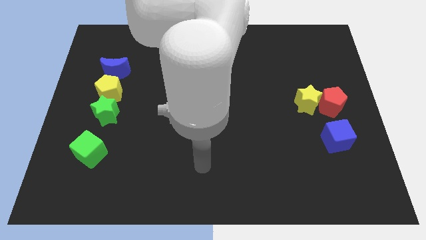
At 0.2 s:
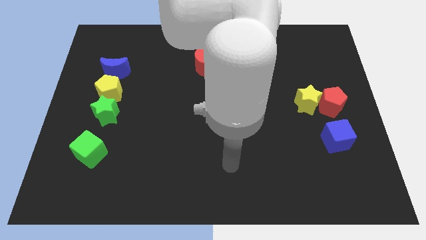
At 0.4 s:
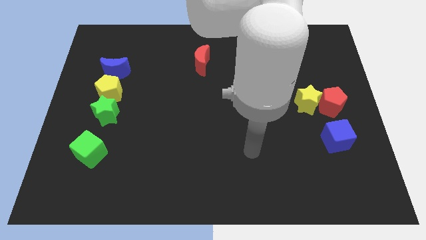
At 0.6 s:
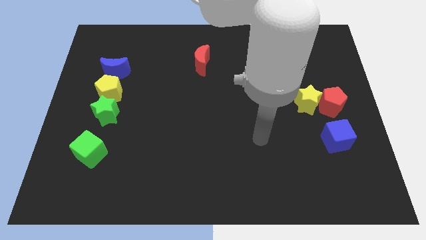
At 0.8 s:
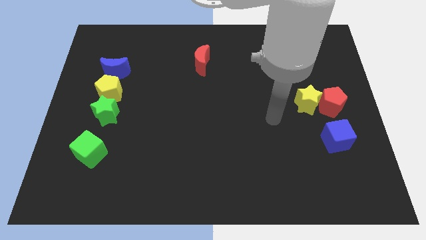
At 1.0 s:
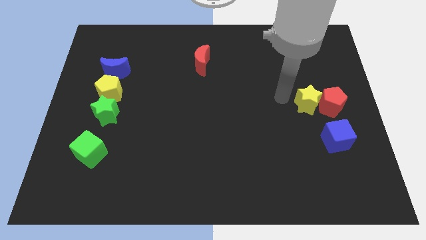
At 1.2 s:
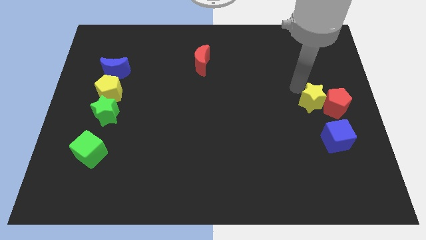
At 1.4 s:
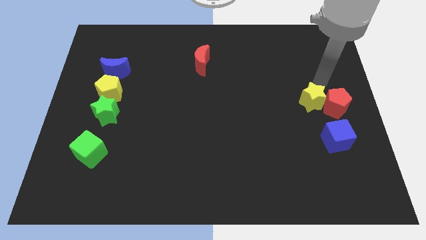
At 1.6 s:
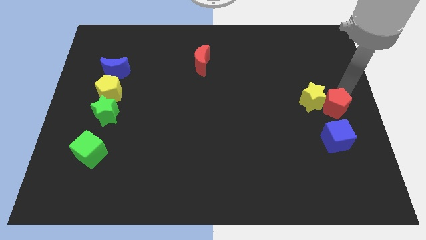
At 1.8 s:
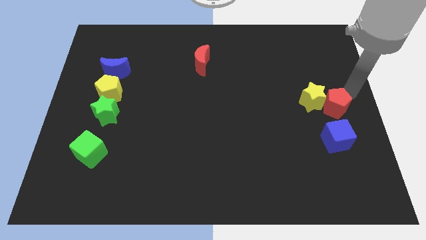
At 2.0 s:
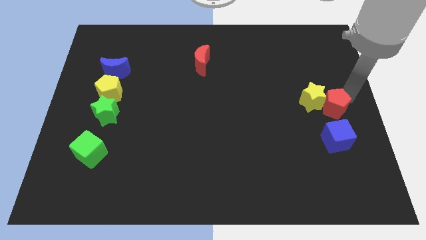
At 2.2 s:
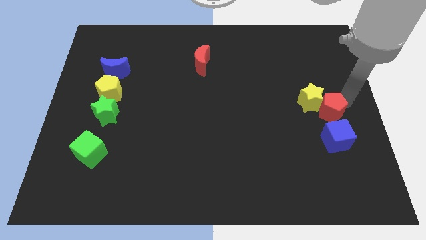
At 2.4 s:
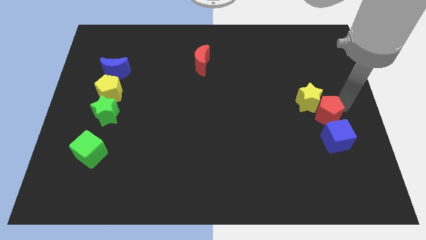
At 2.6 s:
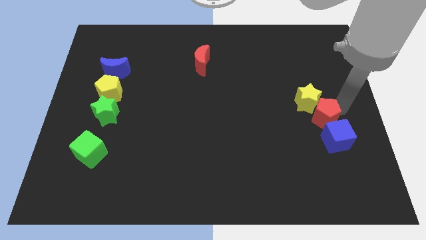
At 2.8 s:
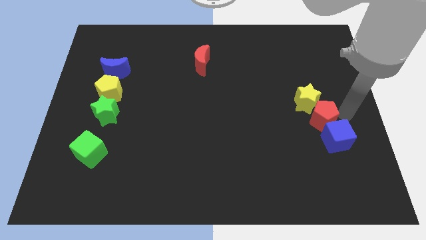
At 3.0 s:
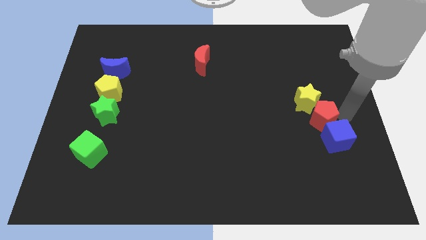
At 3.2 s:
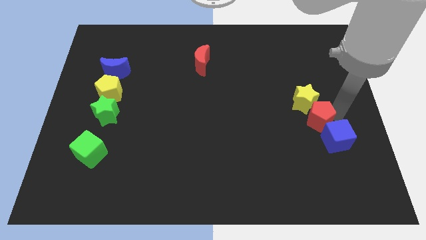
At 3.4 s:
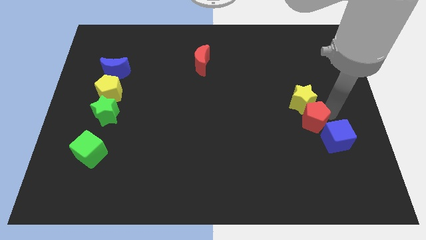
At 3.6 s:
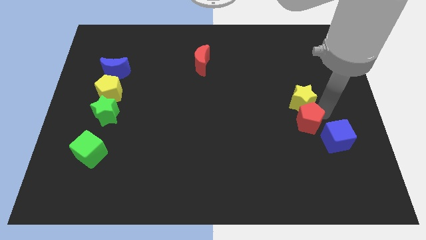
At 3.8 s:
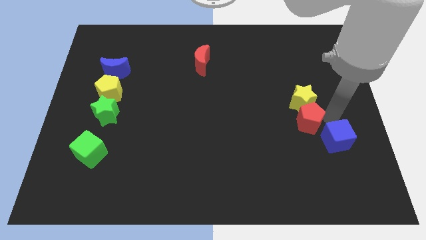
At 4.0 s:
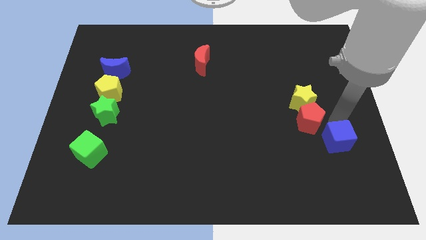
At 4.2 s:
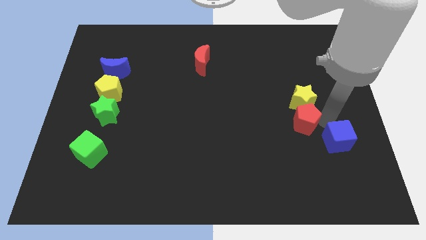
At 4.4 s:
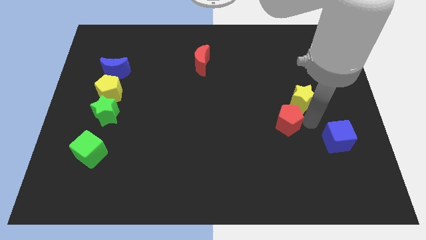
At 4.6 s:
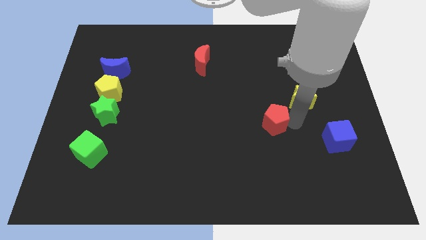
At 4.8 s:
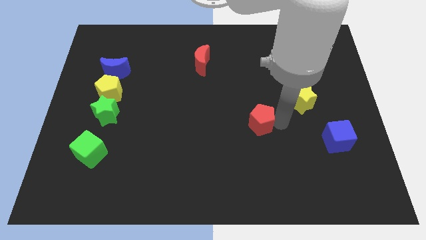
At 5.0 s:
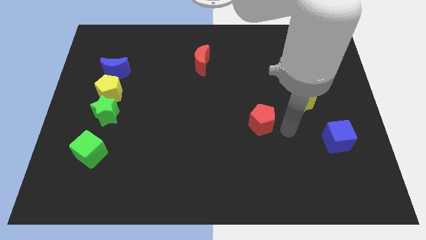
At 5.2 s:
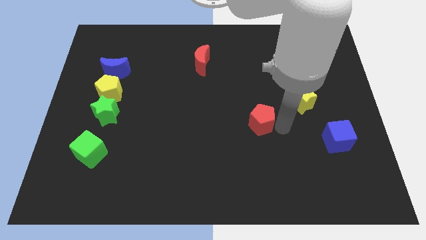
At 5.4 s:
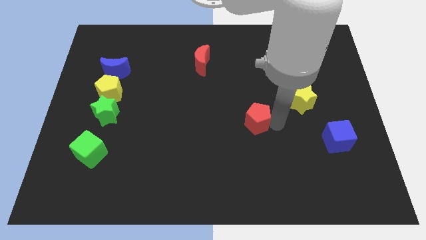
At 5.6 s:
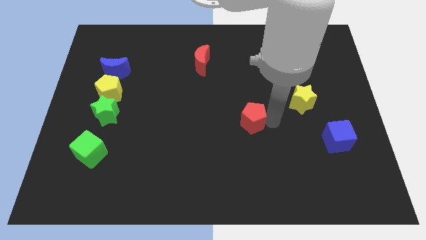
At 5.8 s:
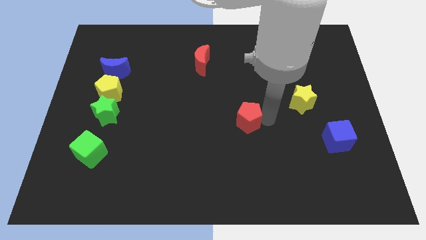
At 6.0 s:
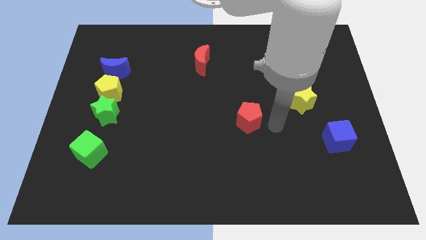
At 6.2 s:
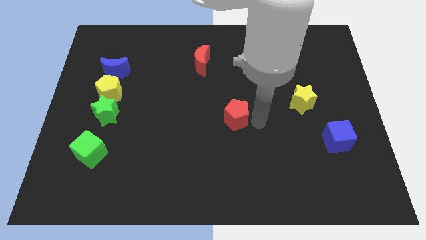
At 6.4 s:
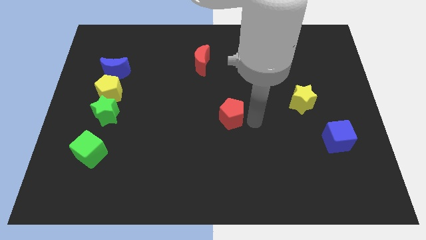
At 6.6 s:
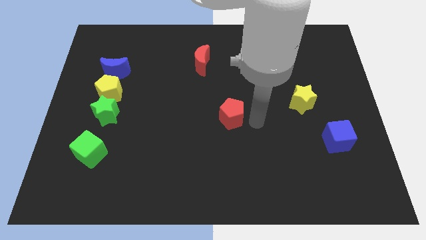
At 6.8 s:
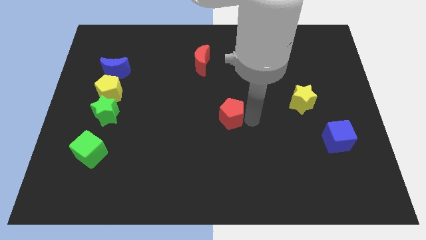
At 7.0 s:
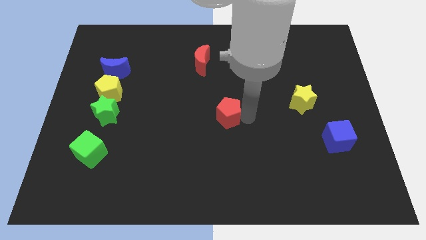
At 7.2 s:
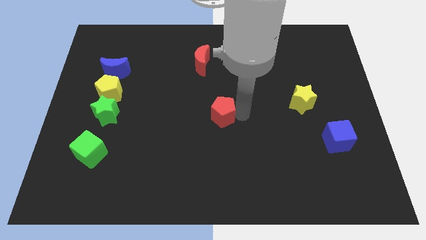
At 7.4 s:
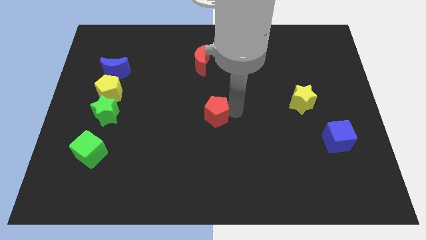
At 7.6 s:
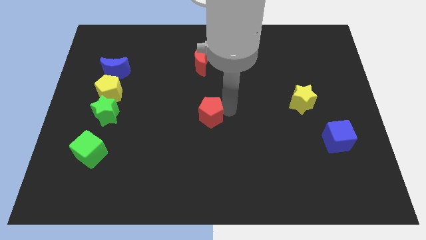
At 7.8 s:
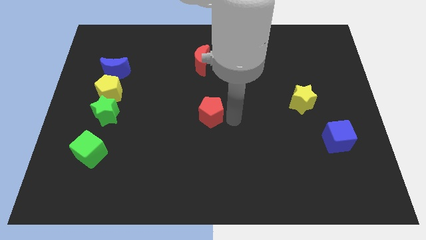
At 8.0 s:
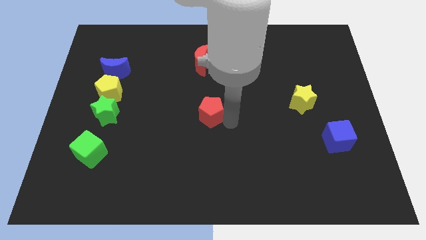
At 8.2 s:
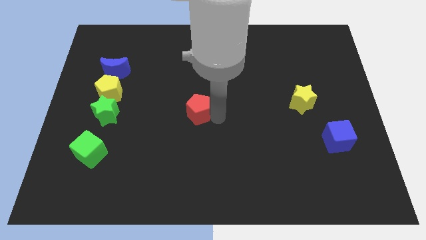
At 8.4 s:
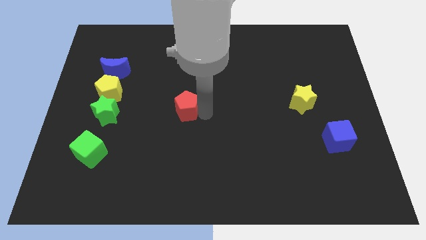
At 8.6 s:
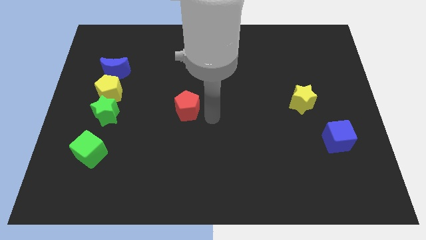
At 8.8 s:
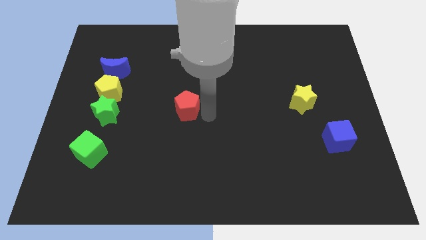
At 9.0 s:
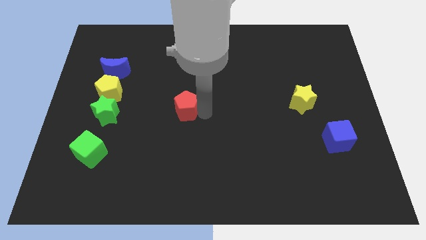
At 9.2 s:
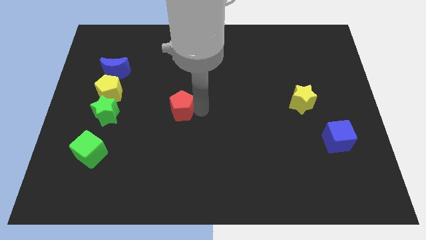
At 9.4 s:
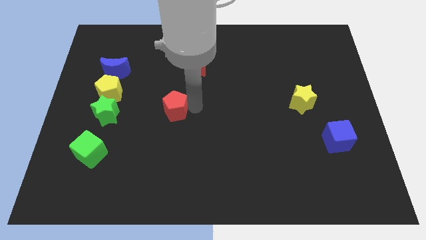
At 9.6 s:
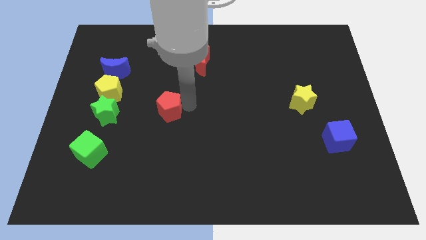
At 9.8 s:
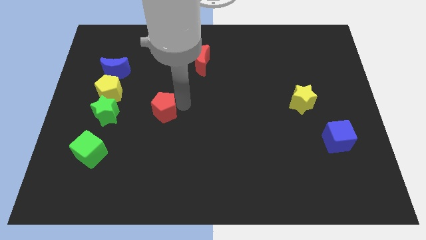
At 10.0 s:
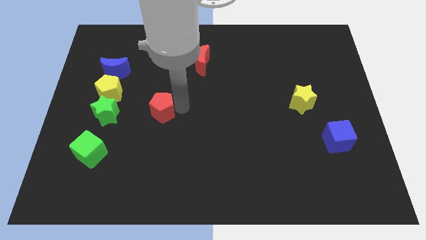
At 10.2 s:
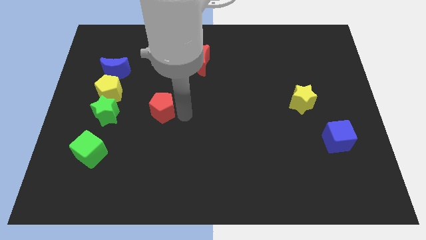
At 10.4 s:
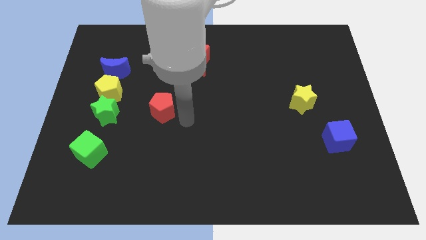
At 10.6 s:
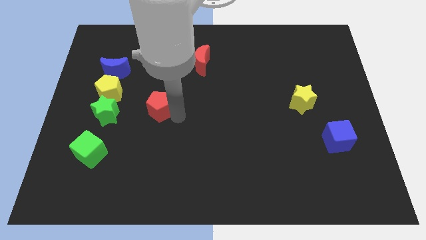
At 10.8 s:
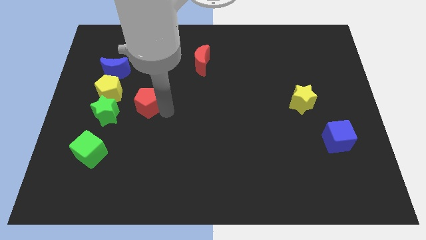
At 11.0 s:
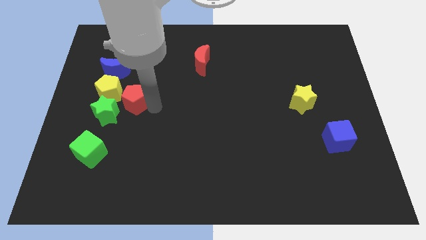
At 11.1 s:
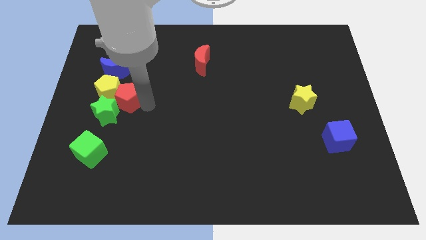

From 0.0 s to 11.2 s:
move the red pentagon towards the yellow pentagon

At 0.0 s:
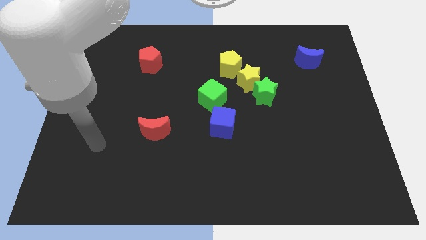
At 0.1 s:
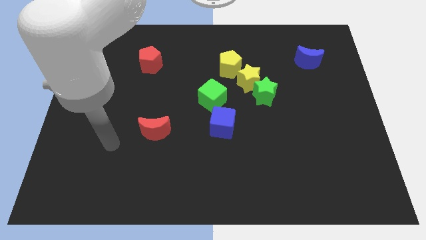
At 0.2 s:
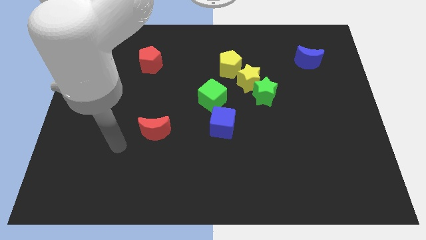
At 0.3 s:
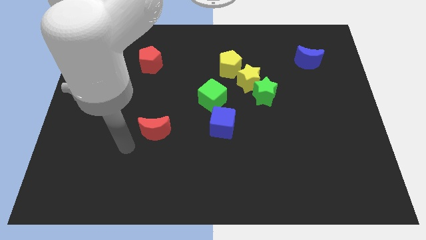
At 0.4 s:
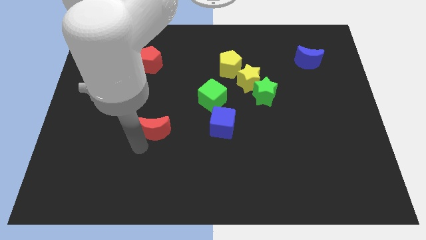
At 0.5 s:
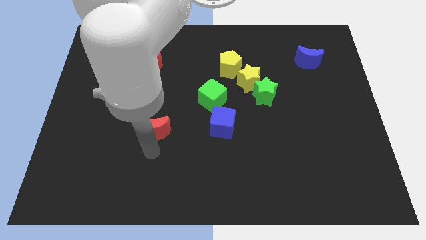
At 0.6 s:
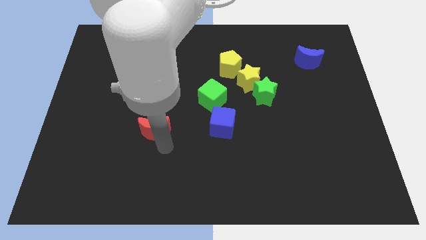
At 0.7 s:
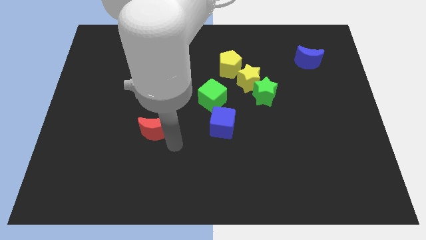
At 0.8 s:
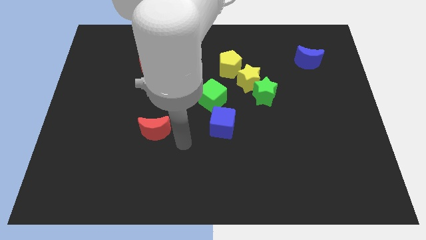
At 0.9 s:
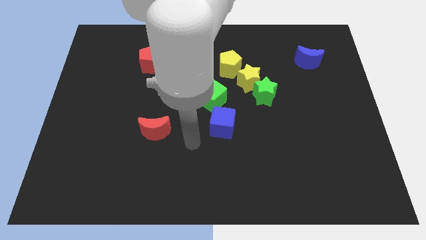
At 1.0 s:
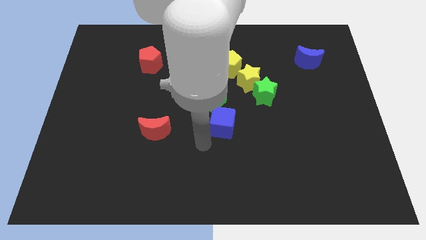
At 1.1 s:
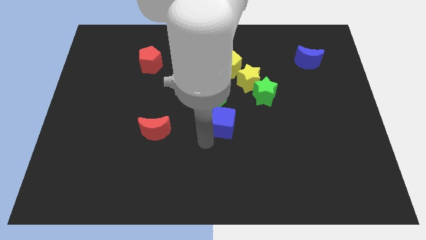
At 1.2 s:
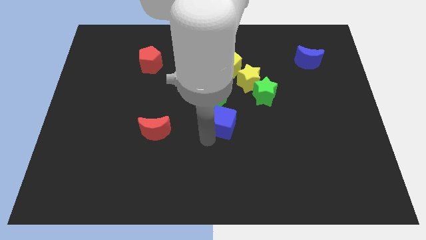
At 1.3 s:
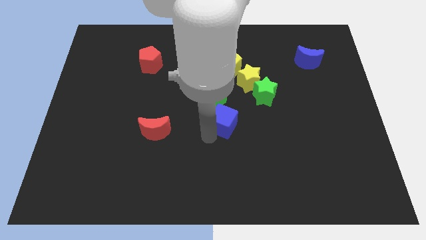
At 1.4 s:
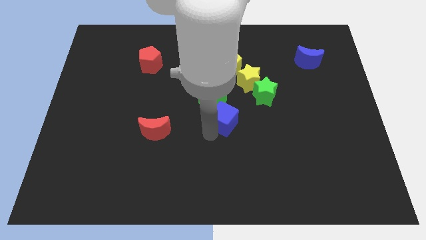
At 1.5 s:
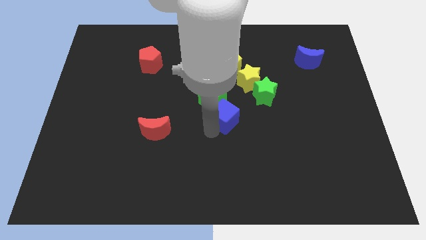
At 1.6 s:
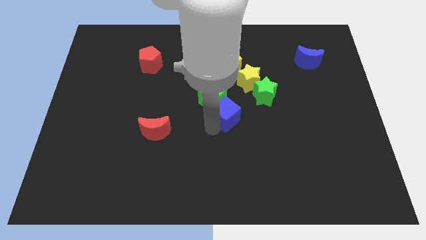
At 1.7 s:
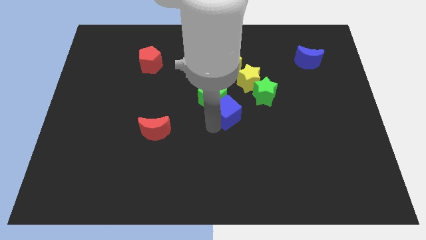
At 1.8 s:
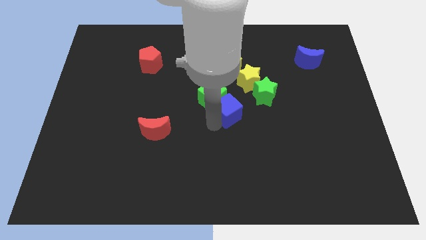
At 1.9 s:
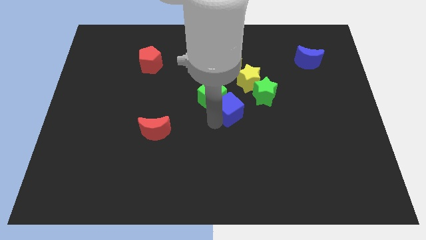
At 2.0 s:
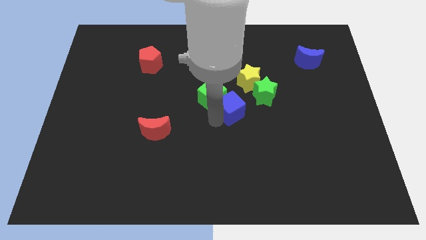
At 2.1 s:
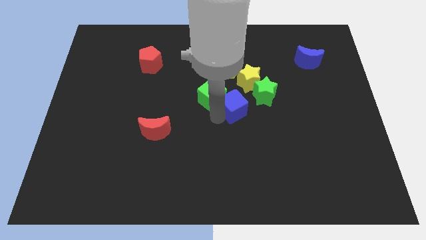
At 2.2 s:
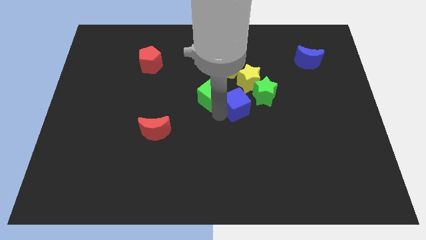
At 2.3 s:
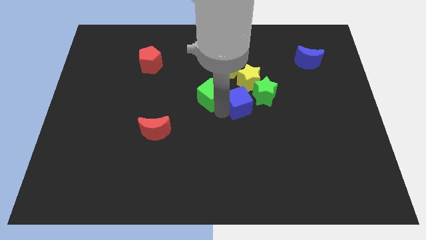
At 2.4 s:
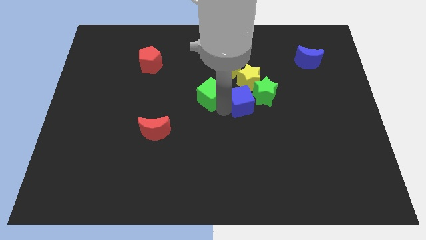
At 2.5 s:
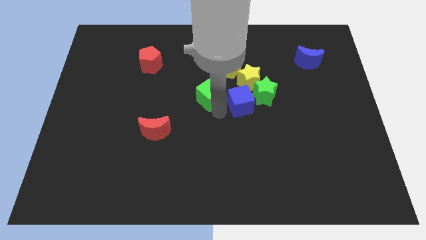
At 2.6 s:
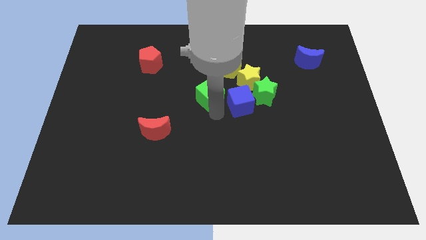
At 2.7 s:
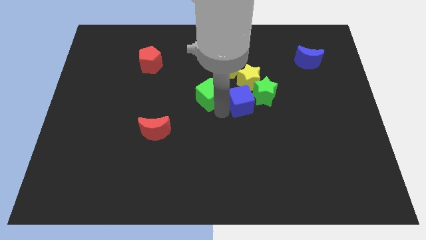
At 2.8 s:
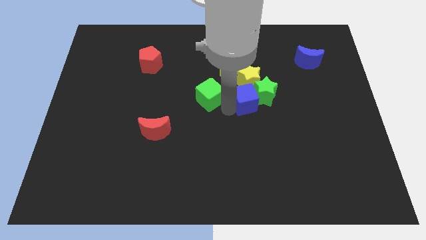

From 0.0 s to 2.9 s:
push the blue cube towards the green star
